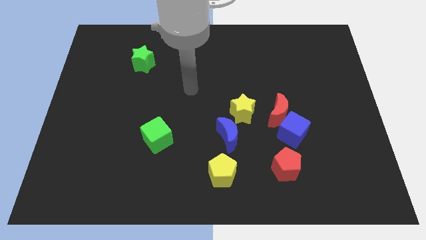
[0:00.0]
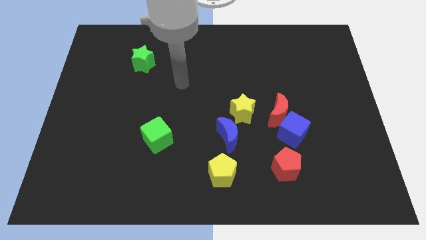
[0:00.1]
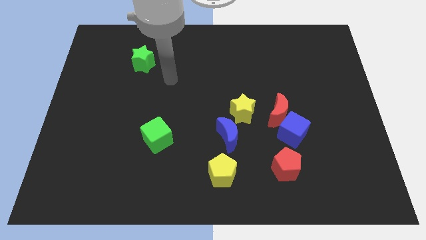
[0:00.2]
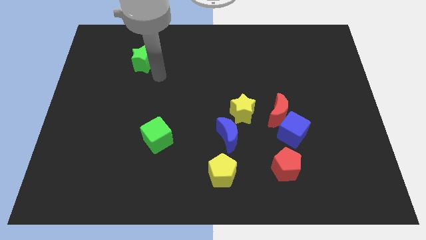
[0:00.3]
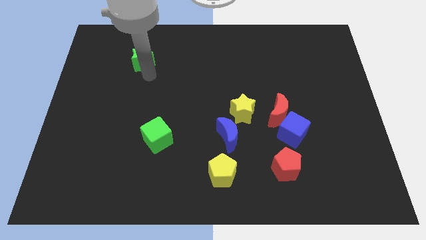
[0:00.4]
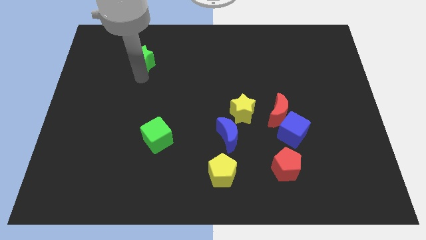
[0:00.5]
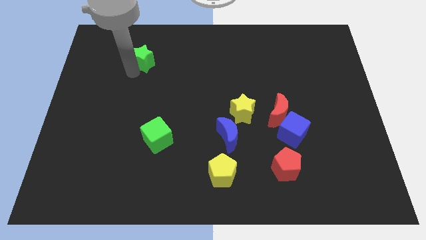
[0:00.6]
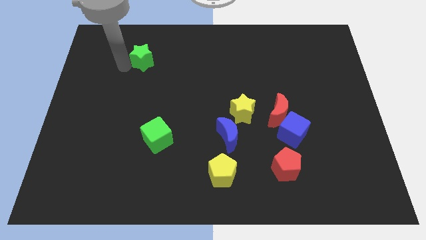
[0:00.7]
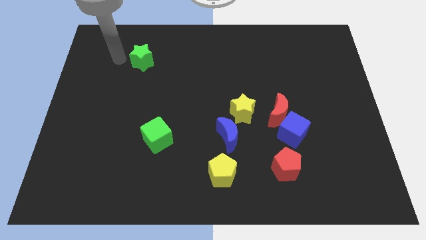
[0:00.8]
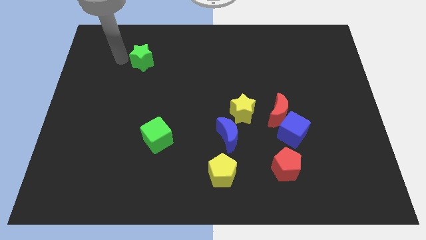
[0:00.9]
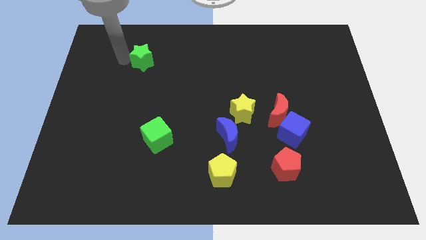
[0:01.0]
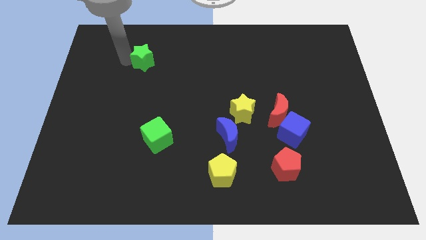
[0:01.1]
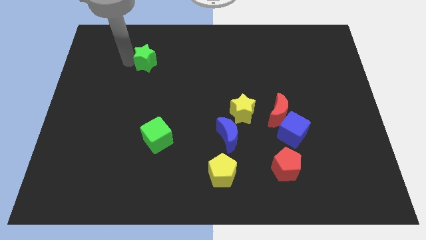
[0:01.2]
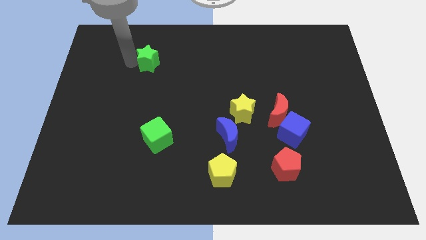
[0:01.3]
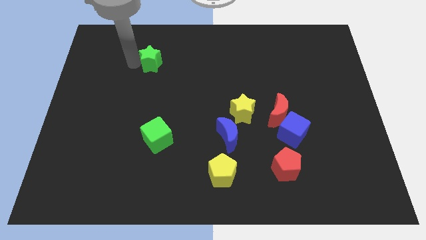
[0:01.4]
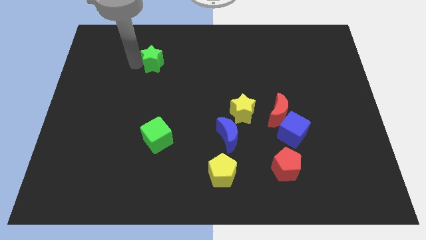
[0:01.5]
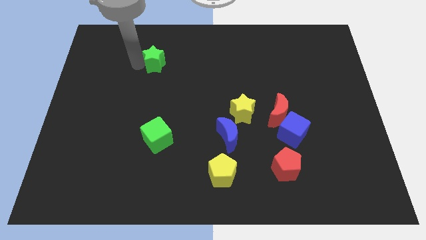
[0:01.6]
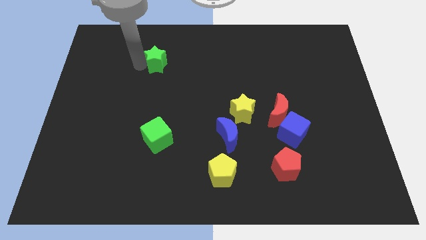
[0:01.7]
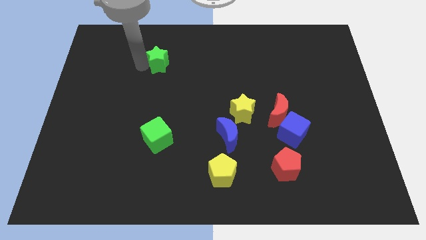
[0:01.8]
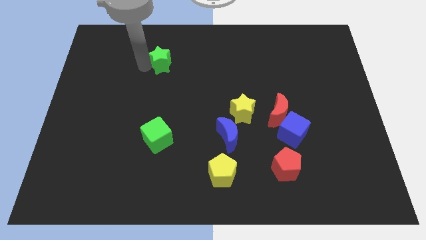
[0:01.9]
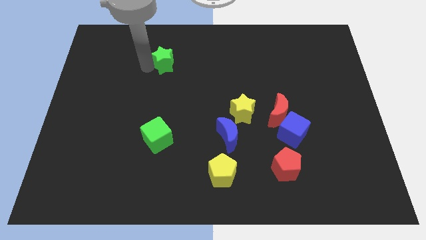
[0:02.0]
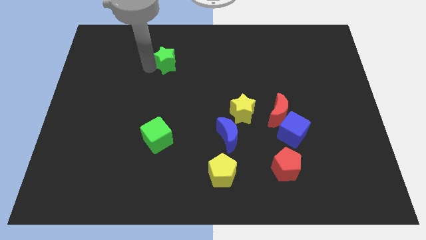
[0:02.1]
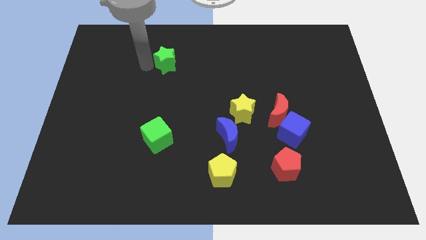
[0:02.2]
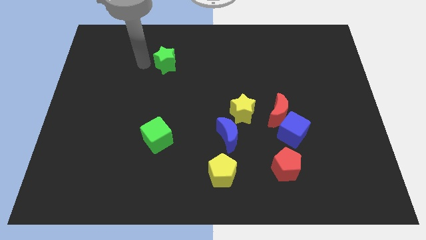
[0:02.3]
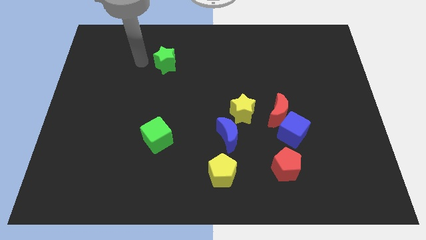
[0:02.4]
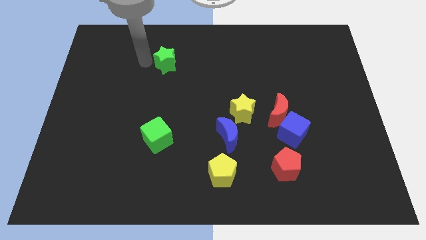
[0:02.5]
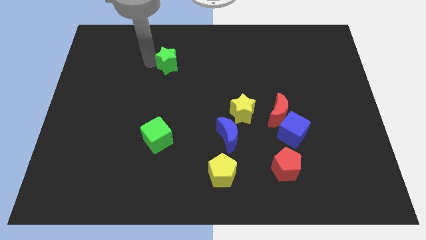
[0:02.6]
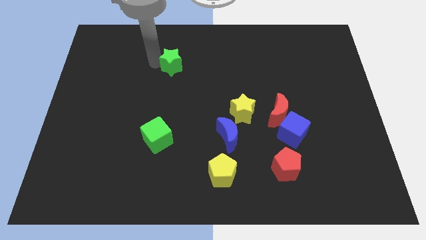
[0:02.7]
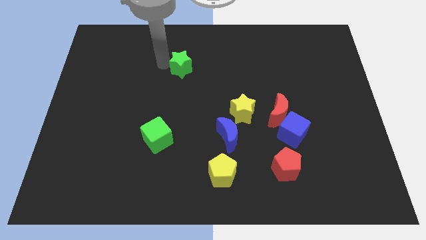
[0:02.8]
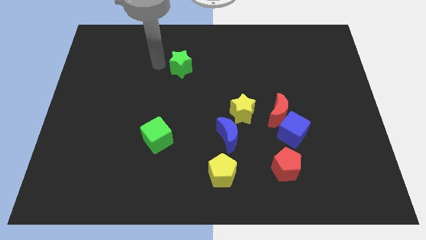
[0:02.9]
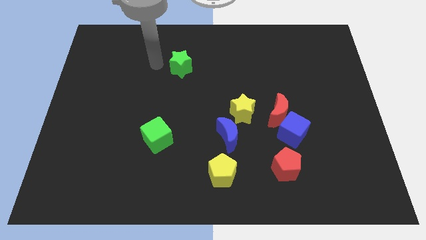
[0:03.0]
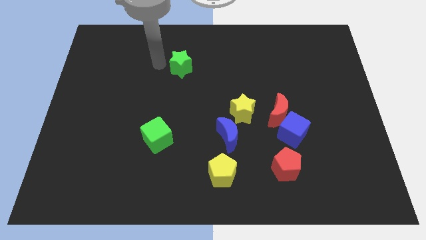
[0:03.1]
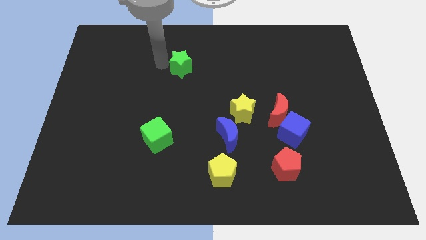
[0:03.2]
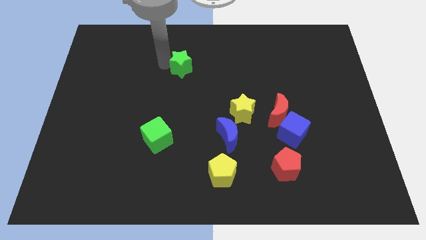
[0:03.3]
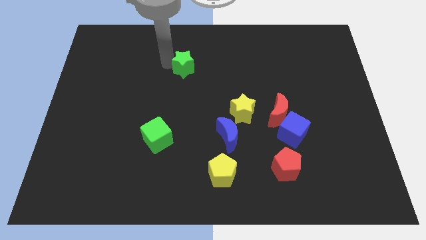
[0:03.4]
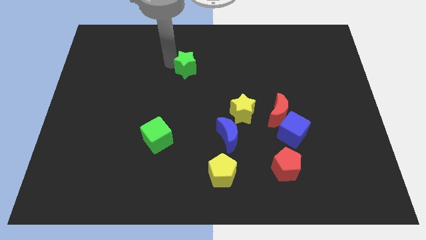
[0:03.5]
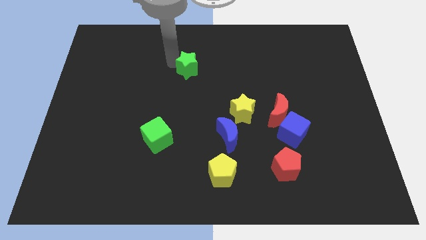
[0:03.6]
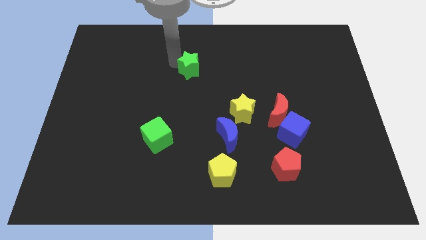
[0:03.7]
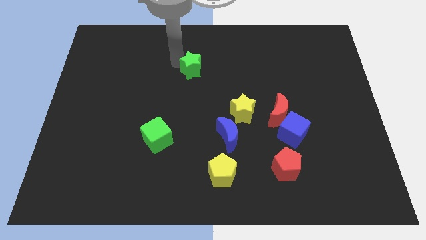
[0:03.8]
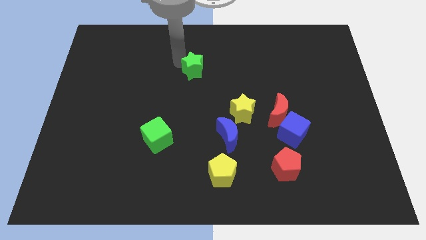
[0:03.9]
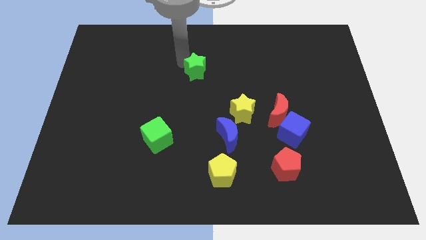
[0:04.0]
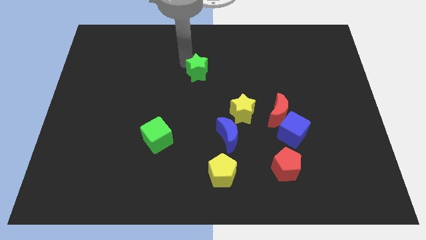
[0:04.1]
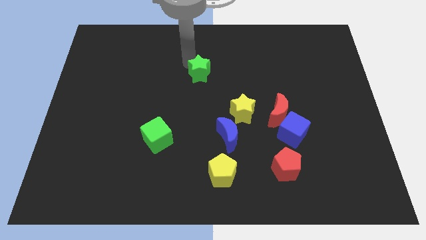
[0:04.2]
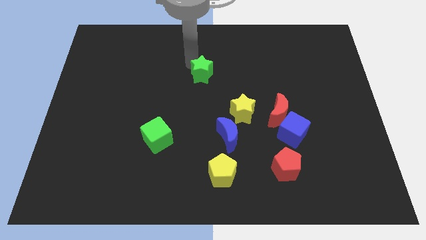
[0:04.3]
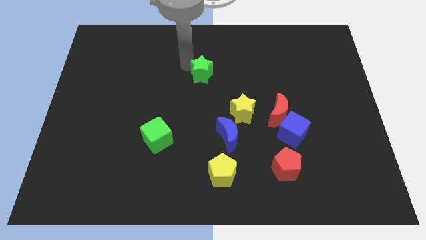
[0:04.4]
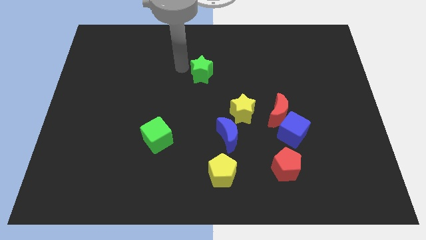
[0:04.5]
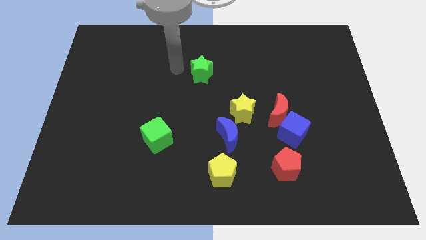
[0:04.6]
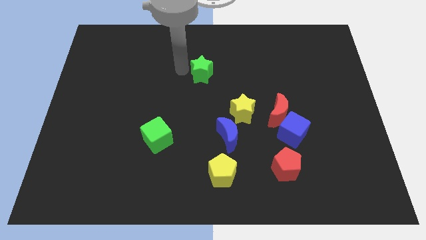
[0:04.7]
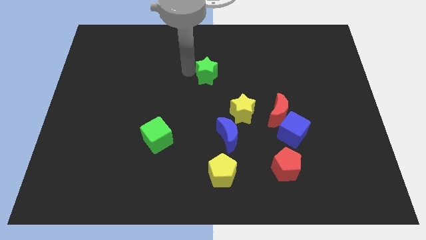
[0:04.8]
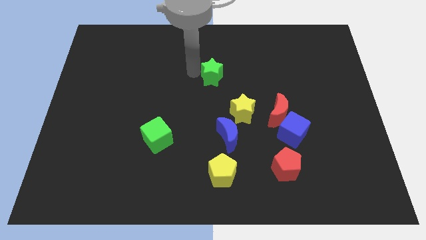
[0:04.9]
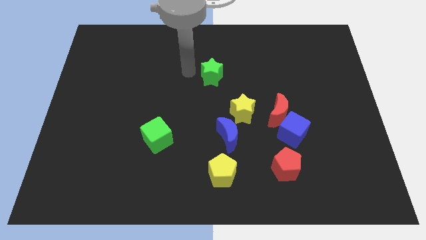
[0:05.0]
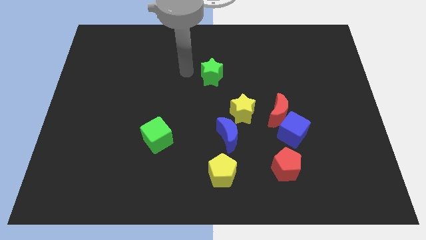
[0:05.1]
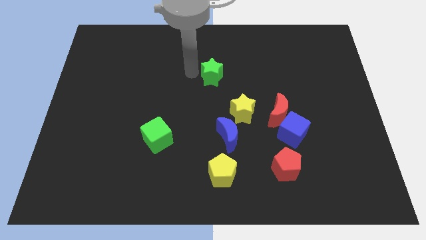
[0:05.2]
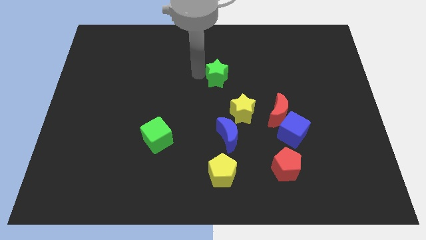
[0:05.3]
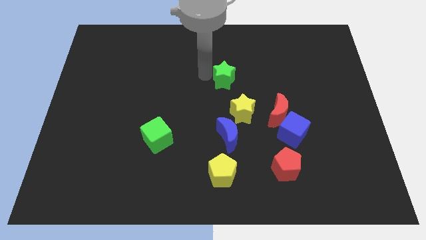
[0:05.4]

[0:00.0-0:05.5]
move the green star to the top side of the yellow star

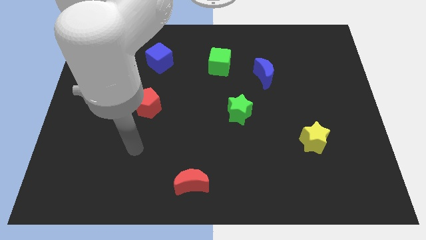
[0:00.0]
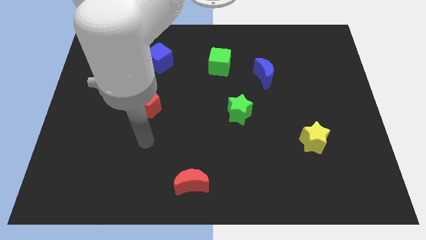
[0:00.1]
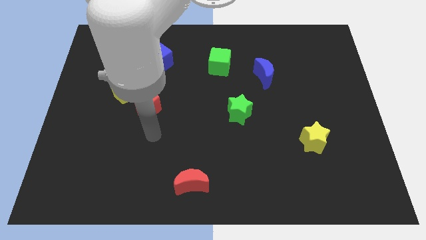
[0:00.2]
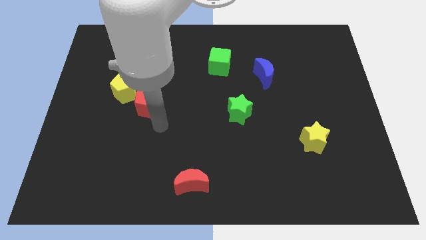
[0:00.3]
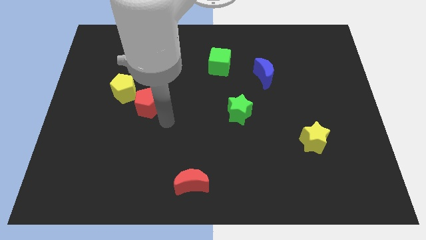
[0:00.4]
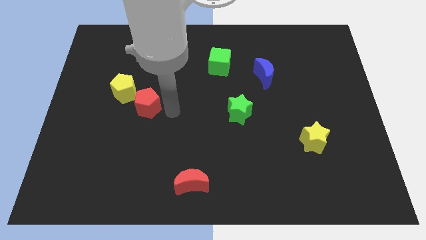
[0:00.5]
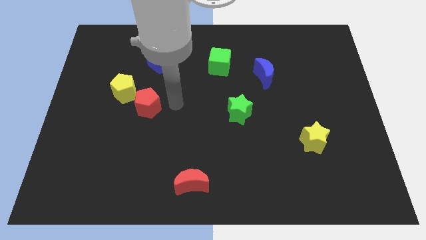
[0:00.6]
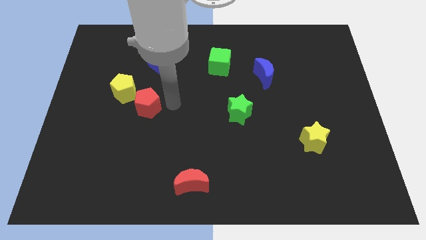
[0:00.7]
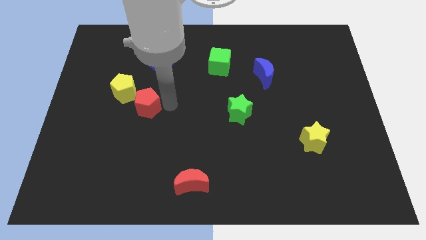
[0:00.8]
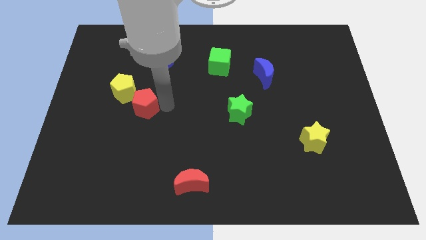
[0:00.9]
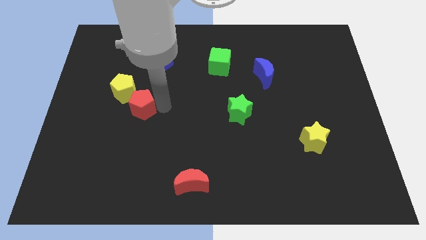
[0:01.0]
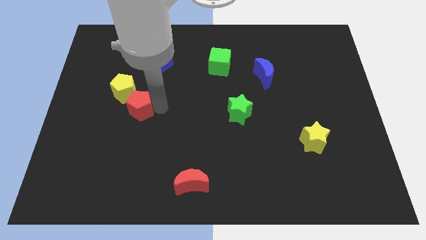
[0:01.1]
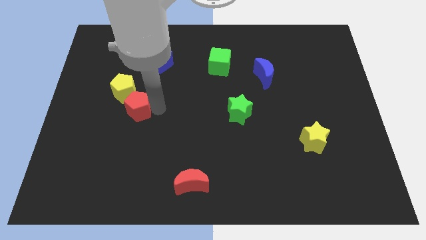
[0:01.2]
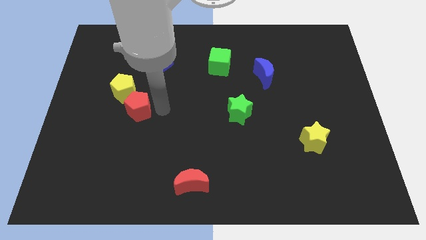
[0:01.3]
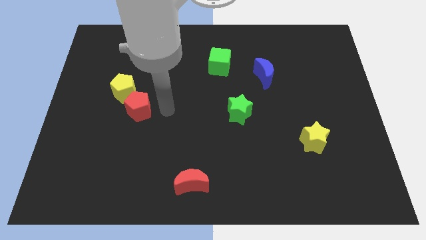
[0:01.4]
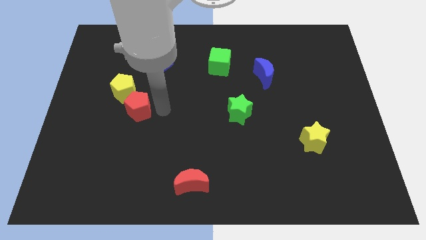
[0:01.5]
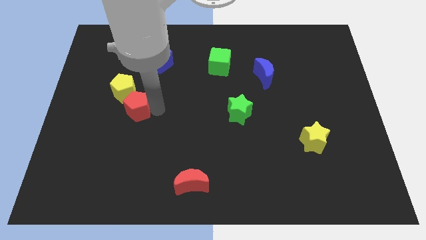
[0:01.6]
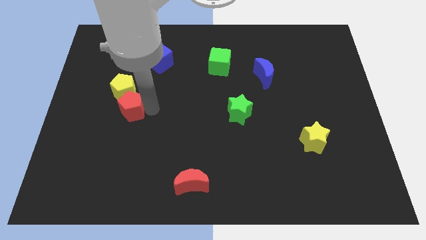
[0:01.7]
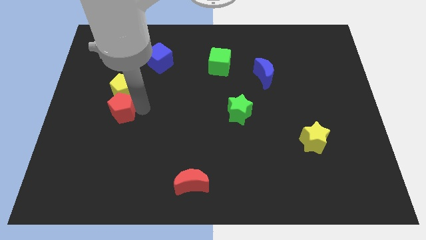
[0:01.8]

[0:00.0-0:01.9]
slide the red pentagon diagonally down and to the left of the yellow pentagon
